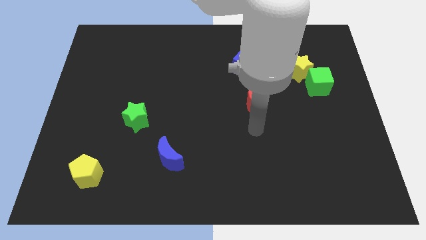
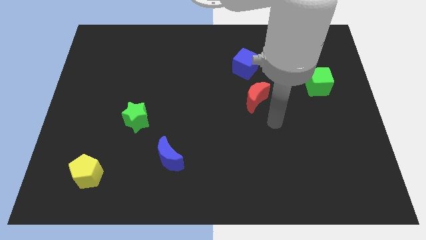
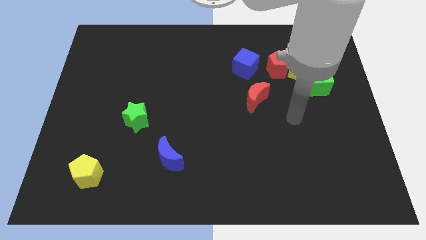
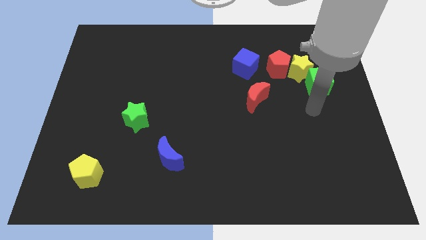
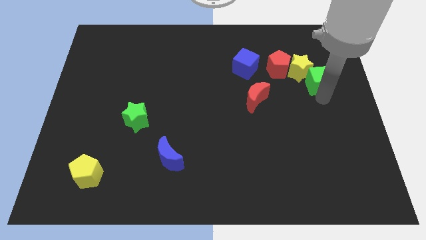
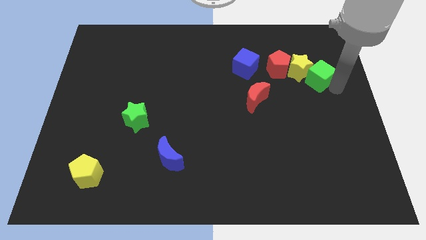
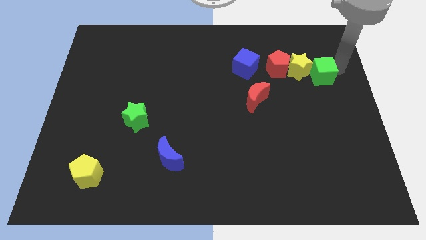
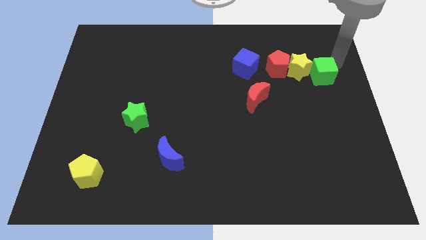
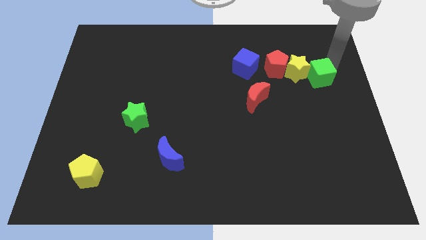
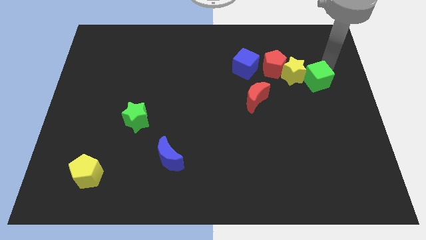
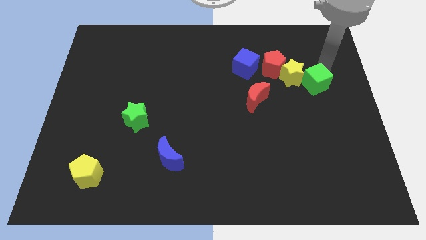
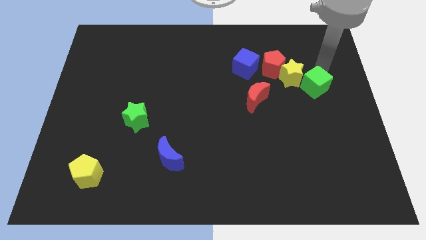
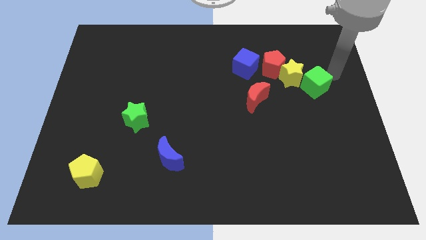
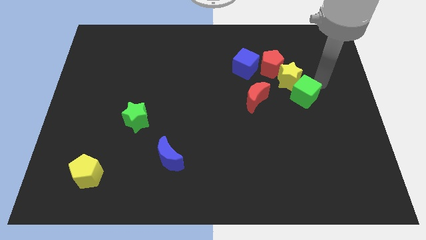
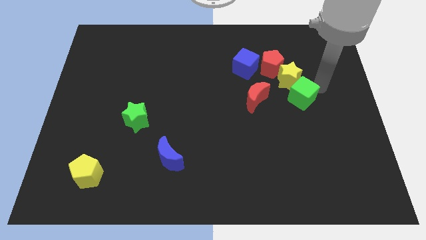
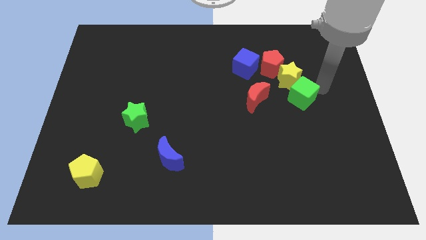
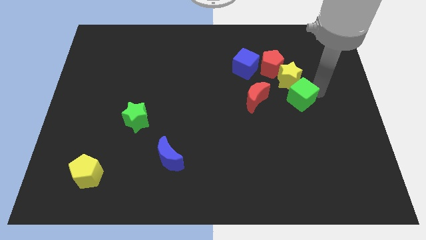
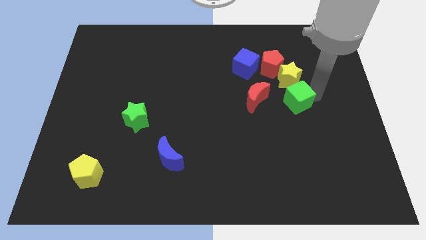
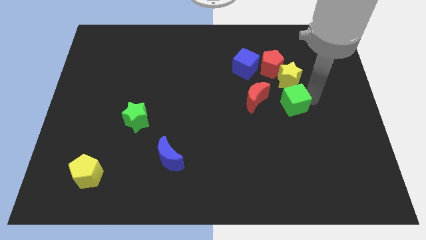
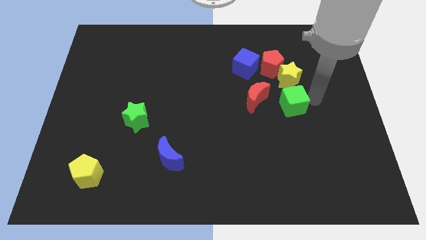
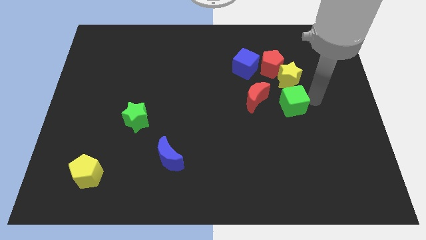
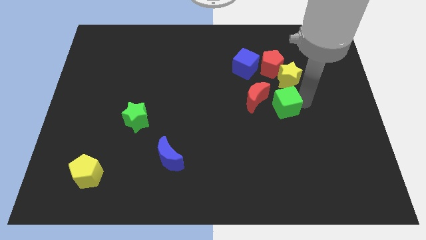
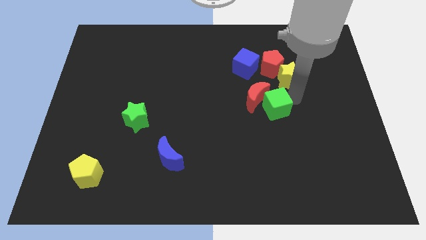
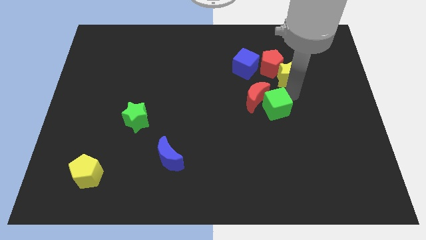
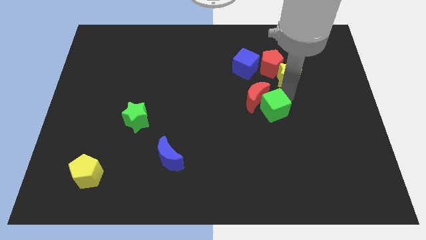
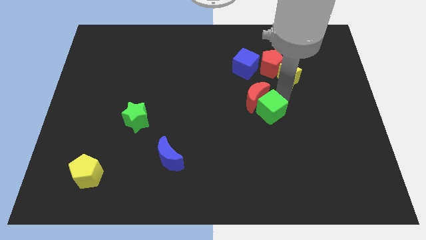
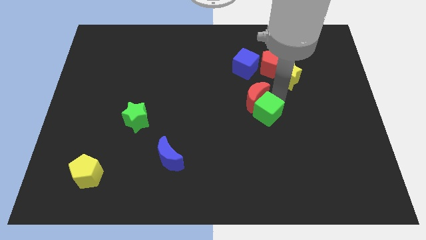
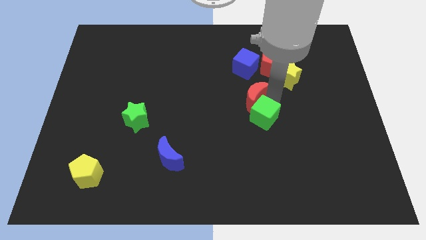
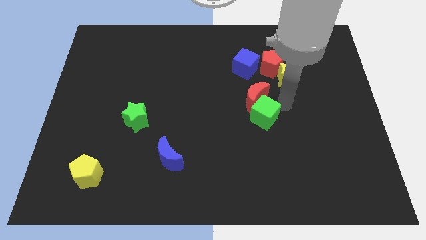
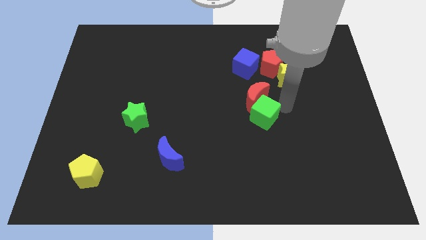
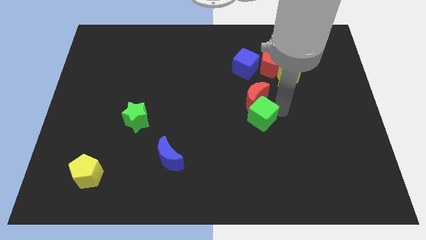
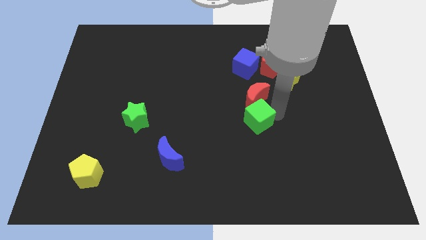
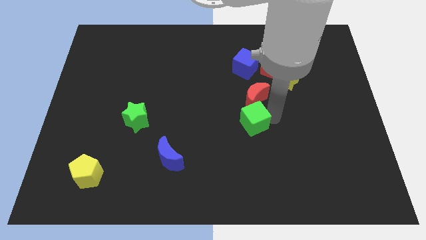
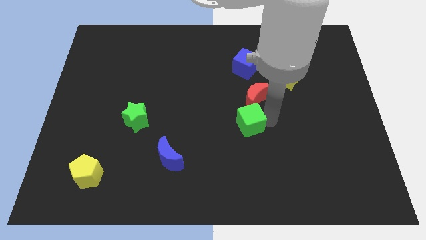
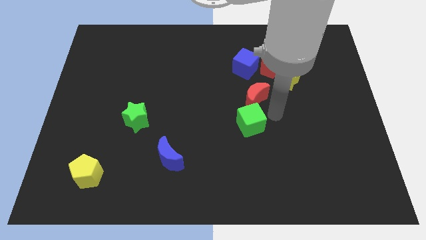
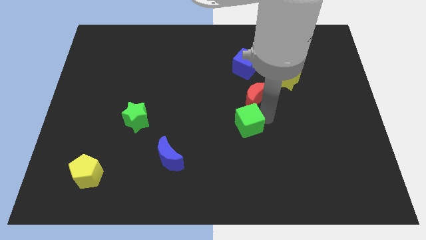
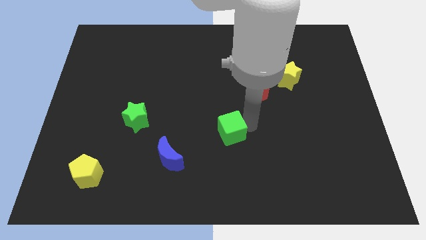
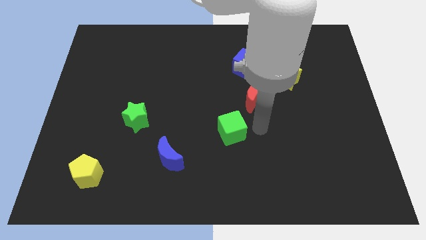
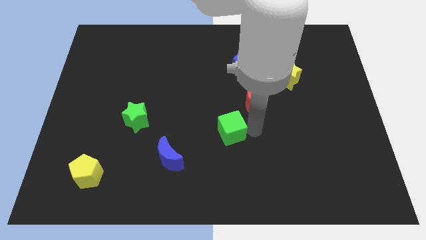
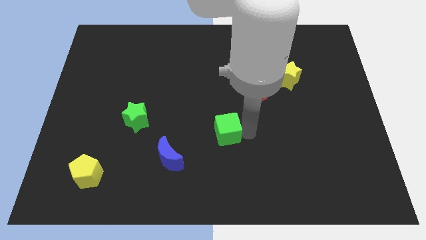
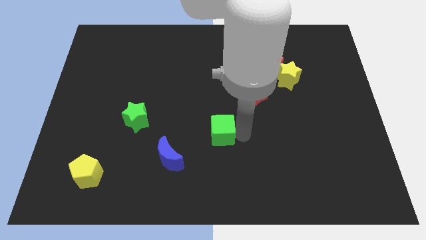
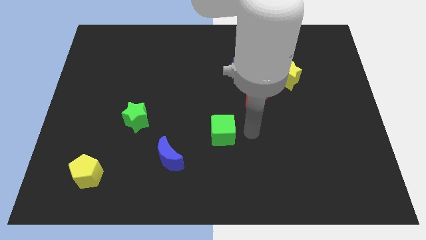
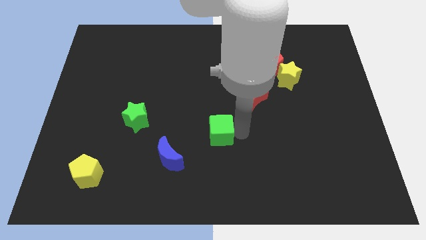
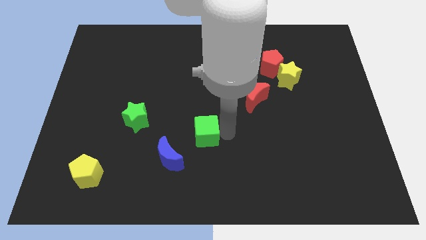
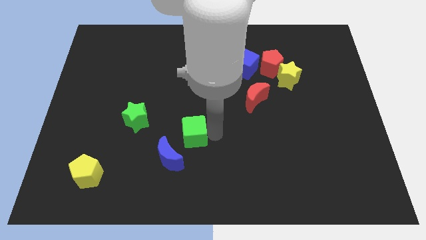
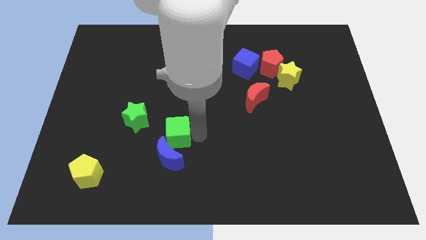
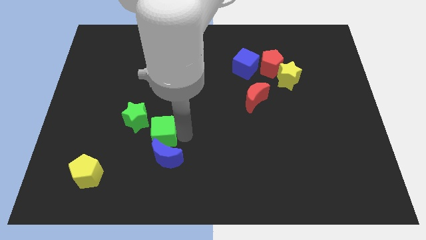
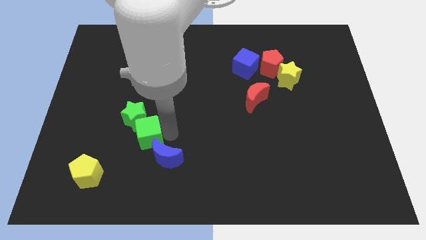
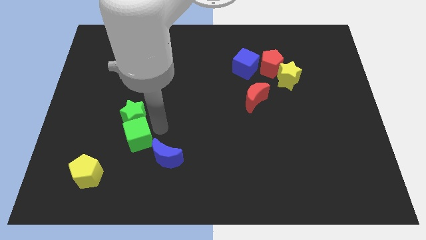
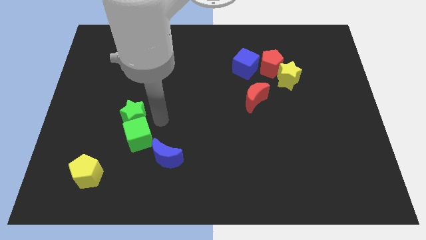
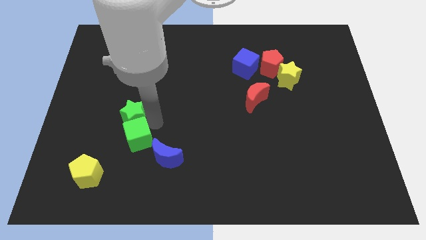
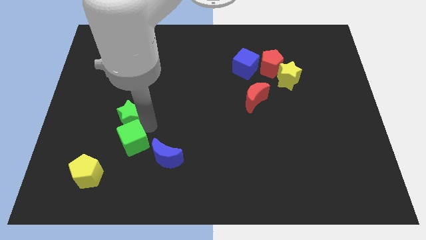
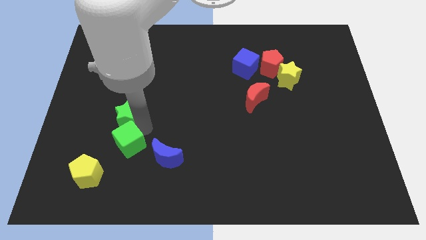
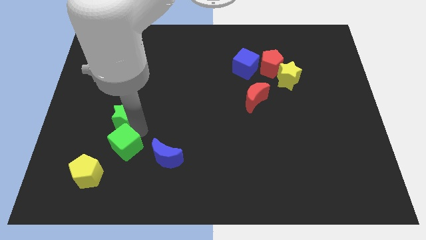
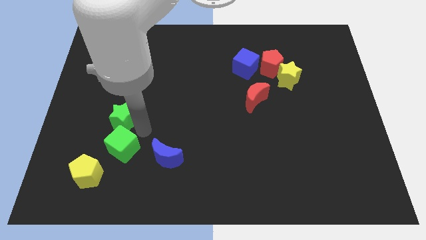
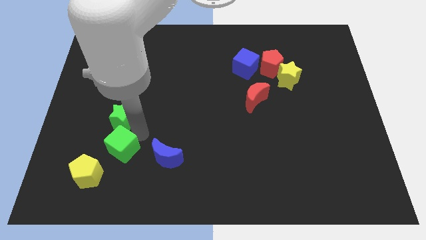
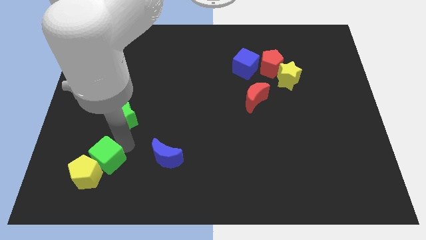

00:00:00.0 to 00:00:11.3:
move the green cube to the yellow pentagon

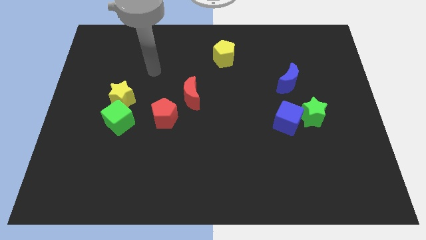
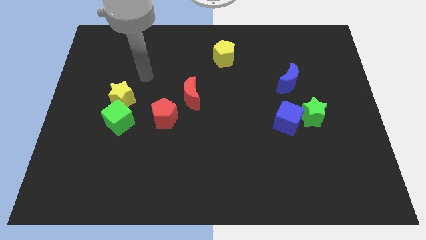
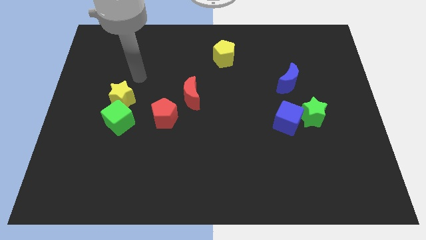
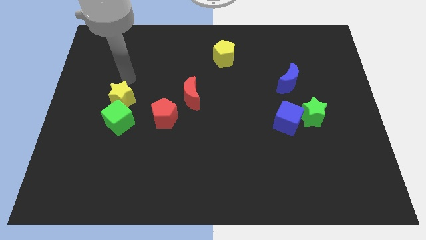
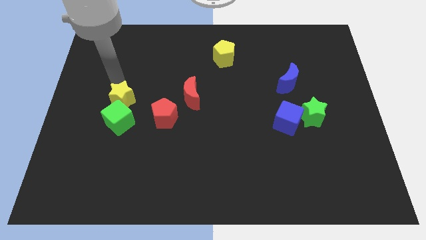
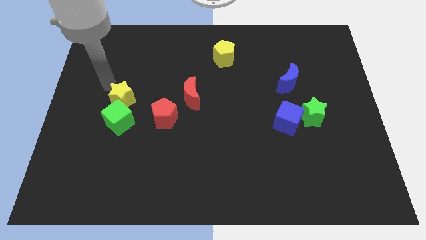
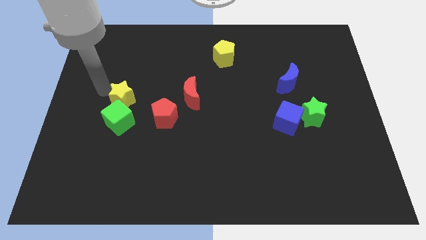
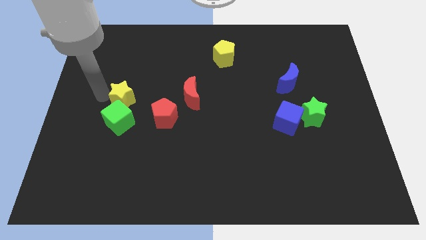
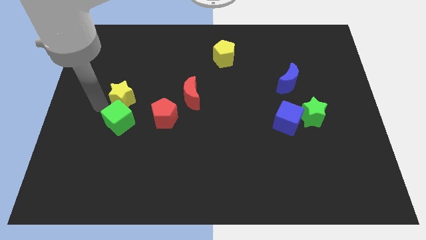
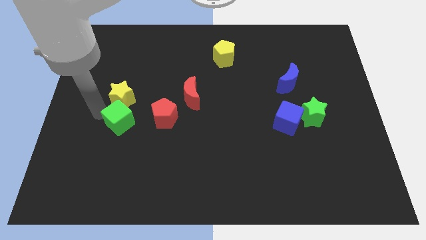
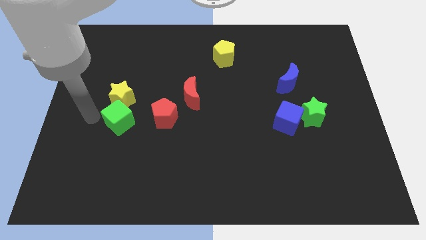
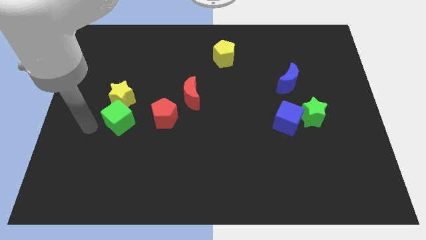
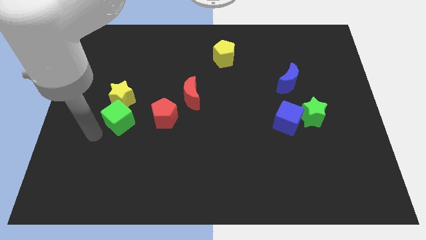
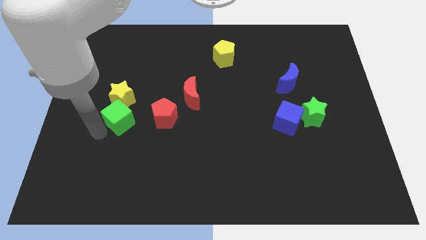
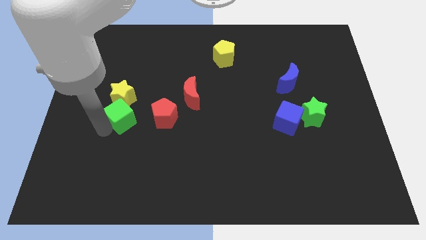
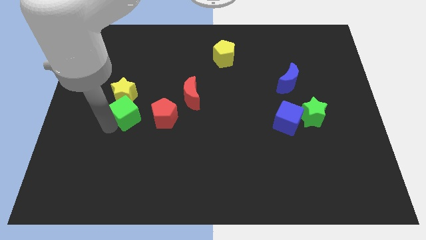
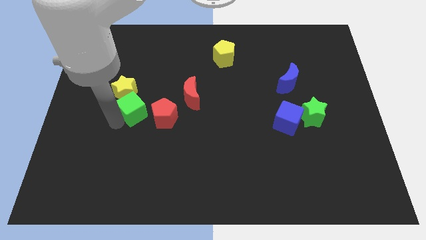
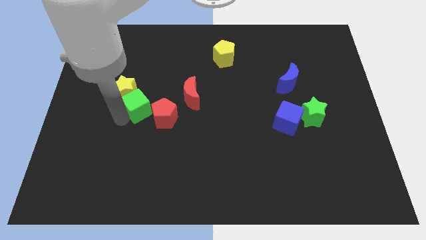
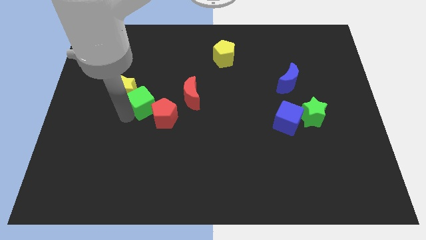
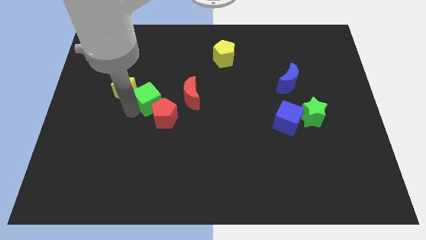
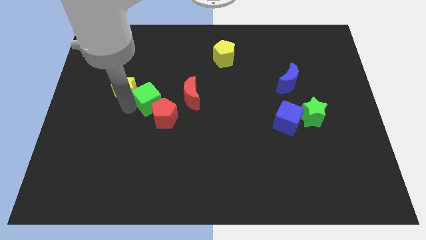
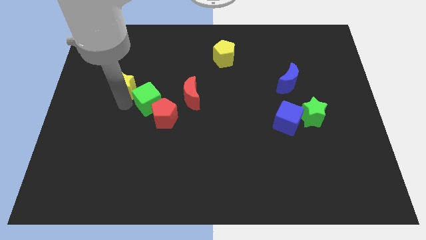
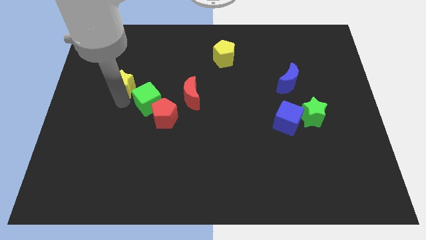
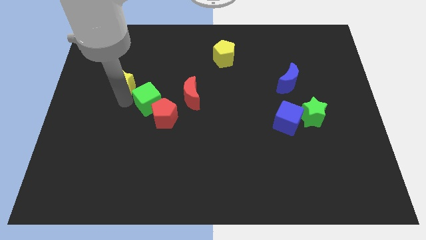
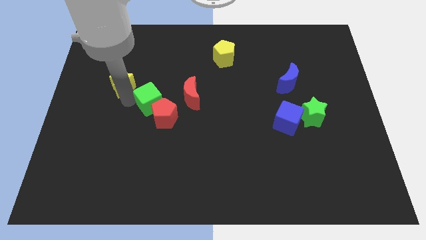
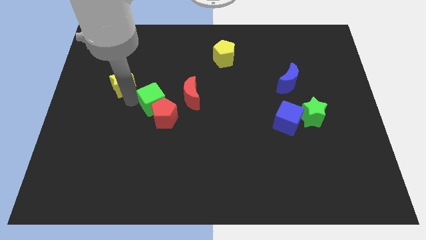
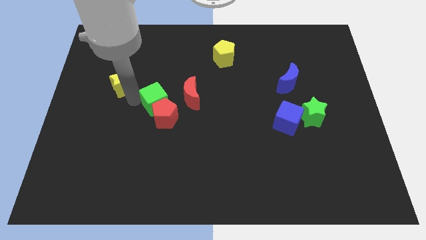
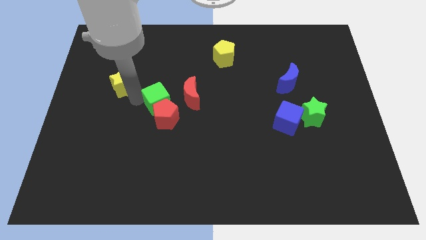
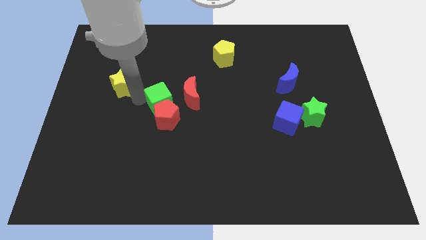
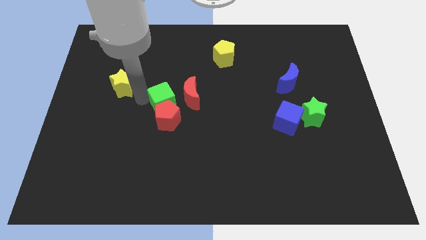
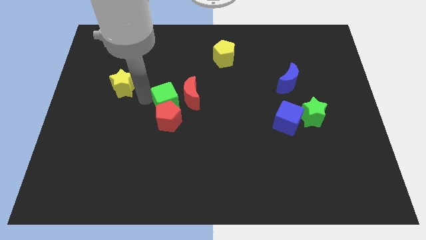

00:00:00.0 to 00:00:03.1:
push the green cube to the red moon
